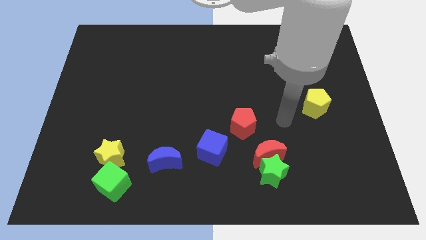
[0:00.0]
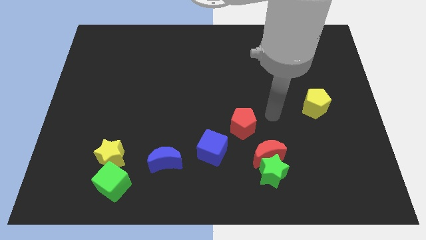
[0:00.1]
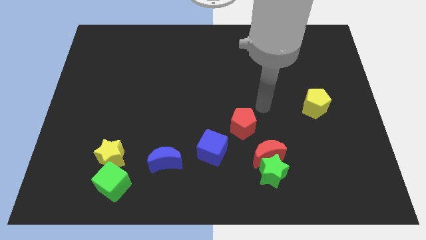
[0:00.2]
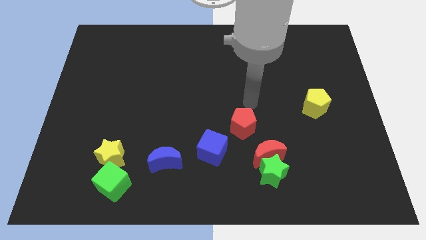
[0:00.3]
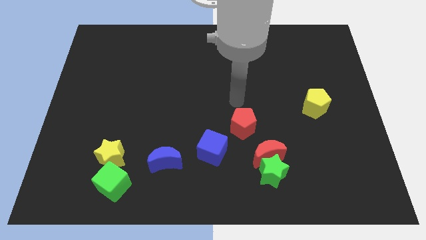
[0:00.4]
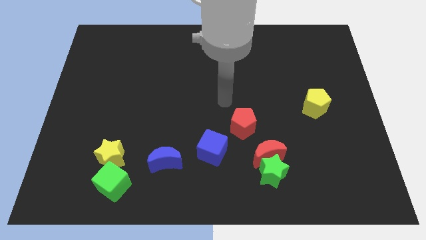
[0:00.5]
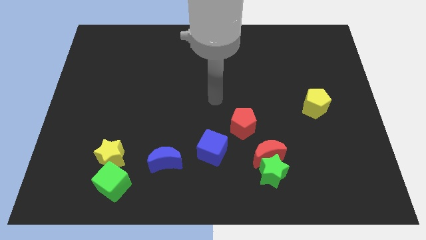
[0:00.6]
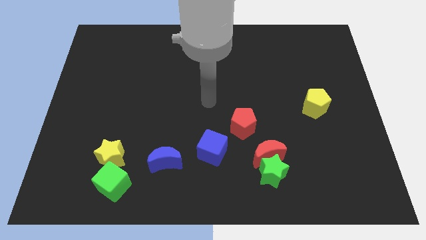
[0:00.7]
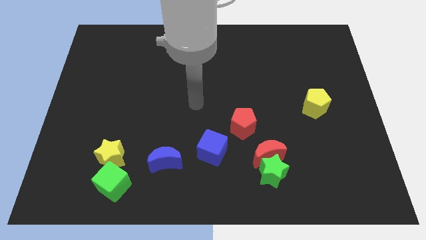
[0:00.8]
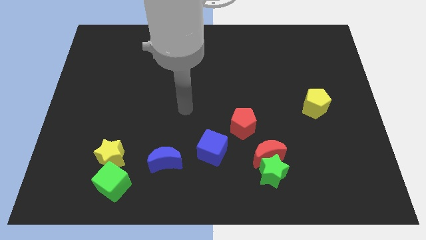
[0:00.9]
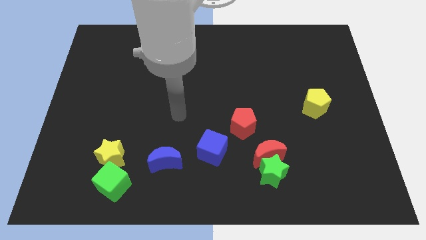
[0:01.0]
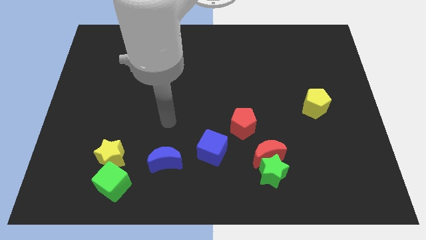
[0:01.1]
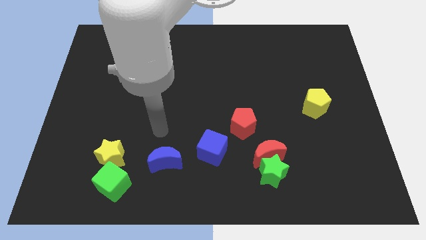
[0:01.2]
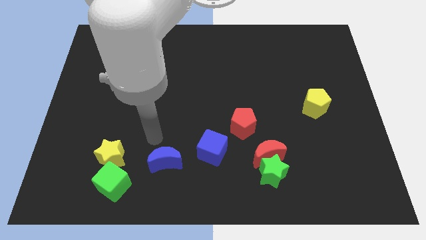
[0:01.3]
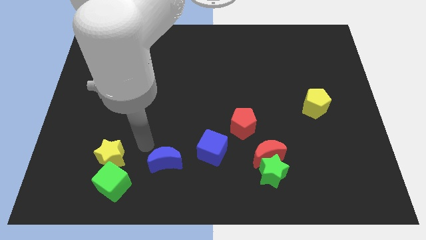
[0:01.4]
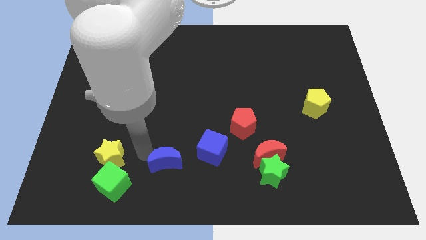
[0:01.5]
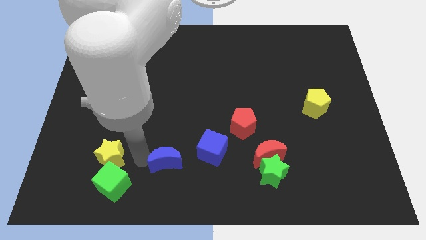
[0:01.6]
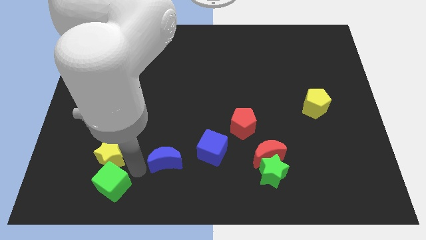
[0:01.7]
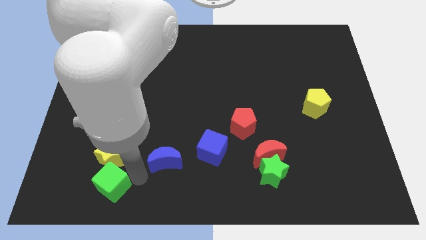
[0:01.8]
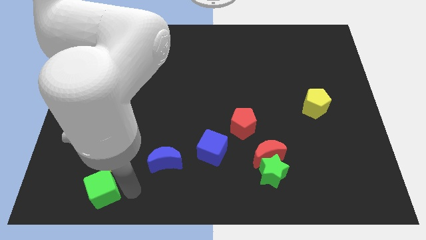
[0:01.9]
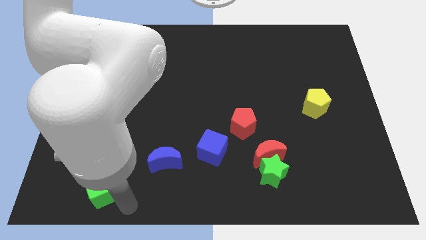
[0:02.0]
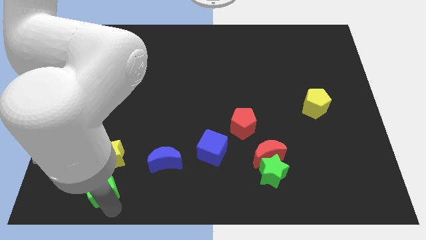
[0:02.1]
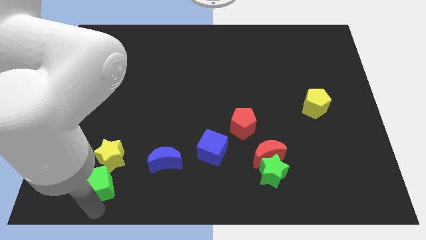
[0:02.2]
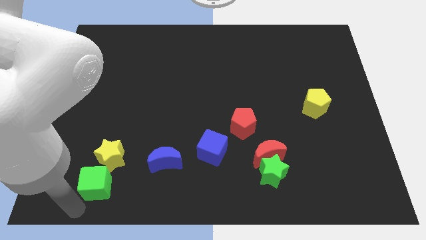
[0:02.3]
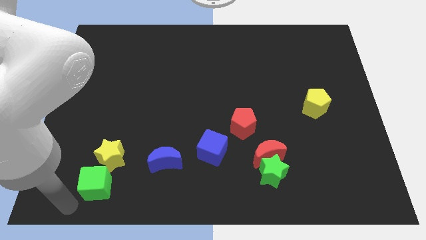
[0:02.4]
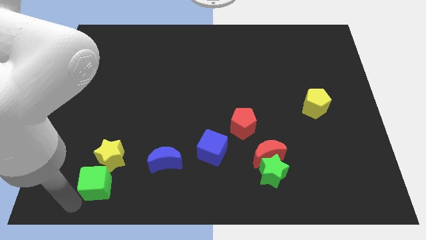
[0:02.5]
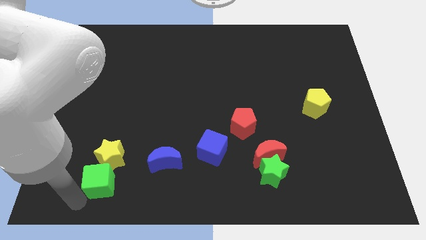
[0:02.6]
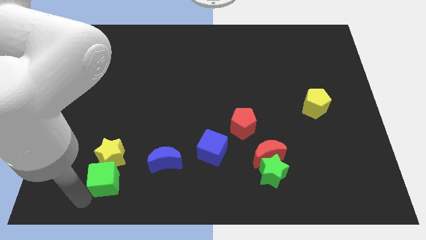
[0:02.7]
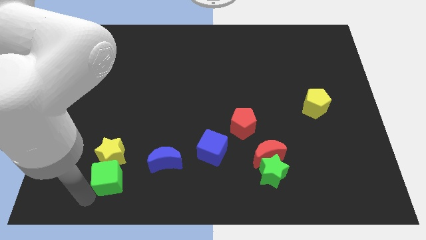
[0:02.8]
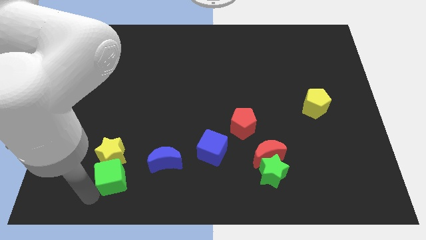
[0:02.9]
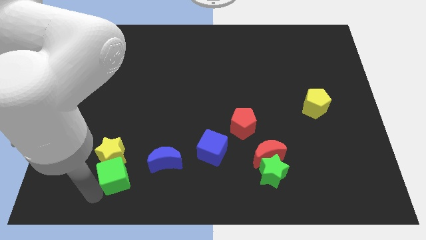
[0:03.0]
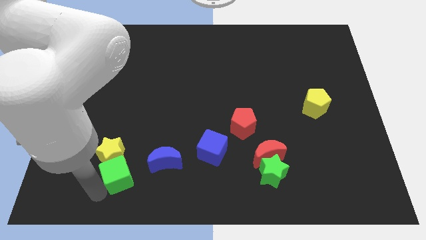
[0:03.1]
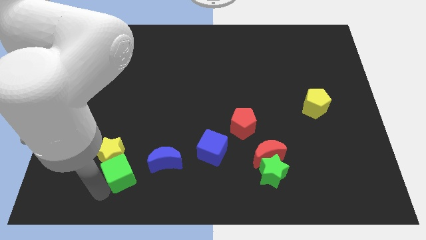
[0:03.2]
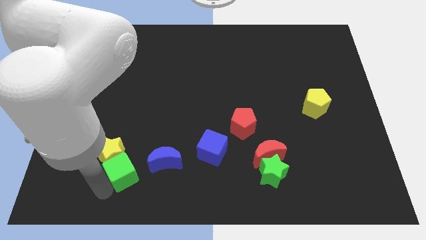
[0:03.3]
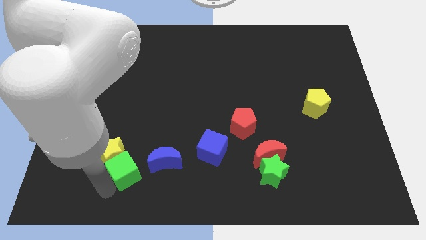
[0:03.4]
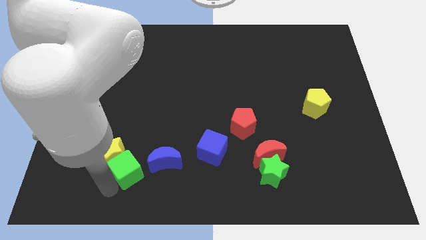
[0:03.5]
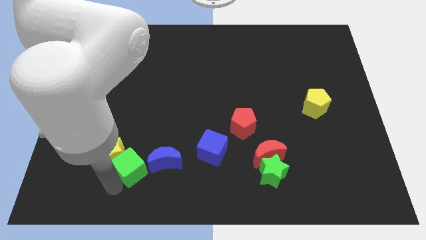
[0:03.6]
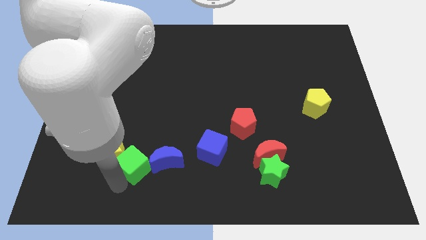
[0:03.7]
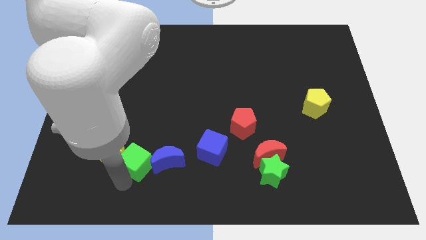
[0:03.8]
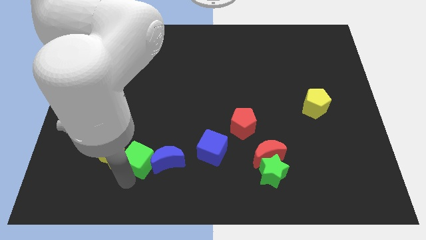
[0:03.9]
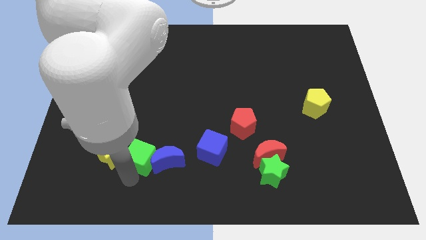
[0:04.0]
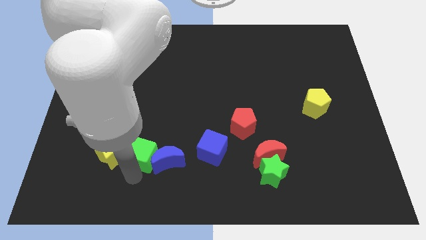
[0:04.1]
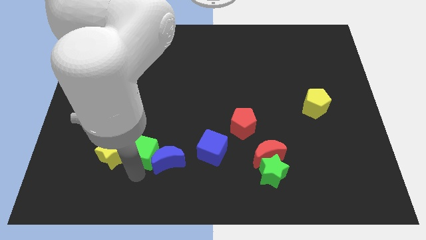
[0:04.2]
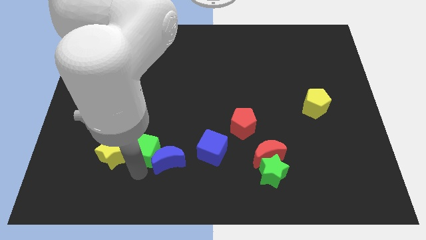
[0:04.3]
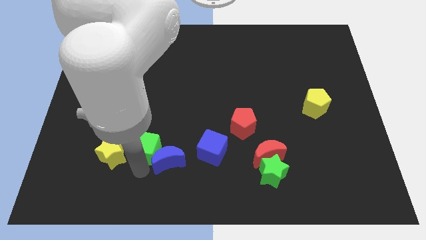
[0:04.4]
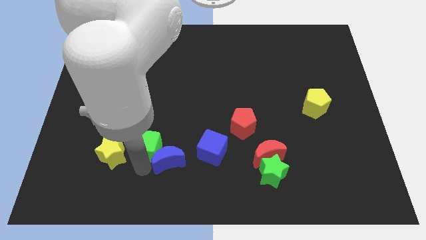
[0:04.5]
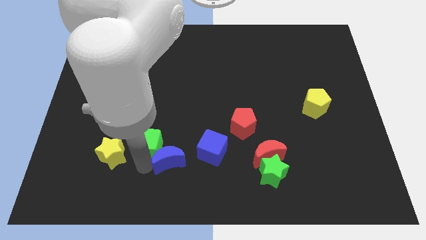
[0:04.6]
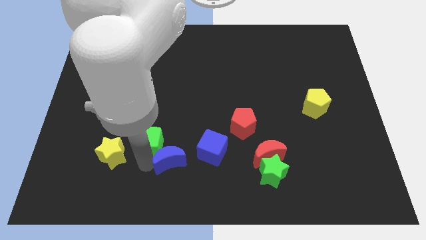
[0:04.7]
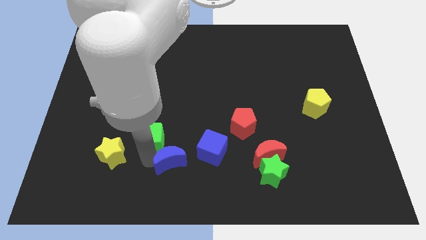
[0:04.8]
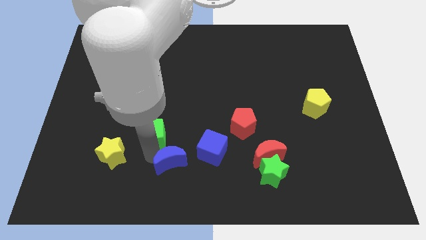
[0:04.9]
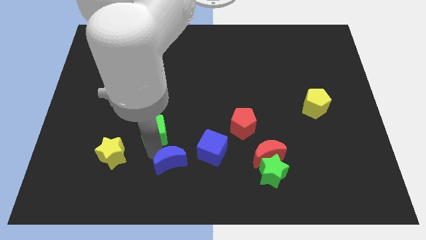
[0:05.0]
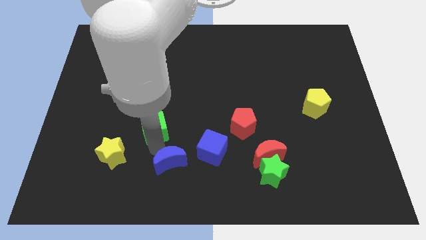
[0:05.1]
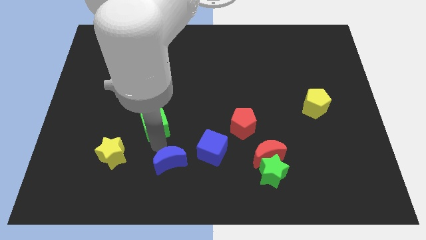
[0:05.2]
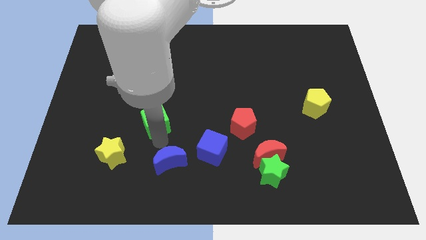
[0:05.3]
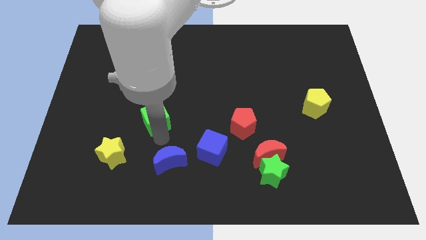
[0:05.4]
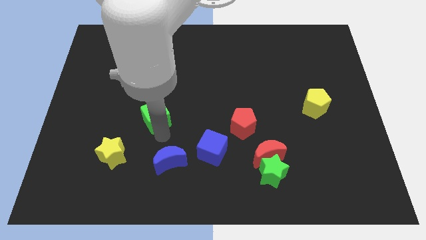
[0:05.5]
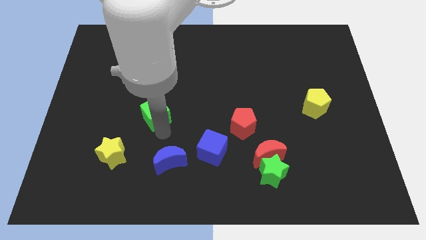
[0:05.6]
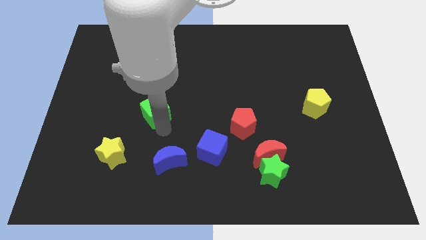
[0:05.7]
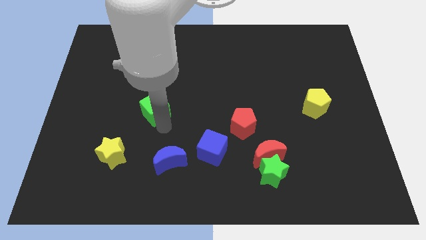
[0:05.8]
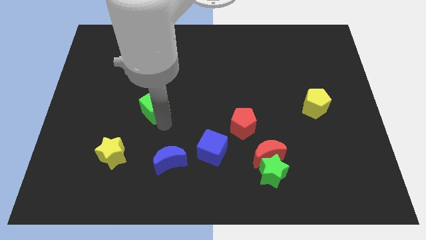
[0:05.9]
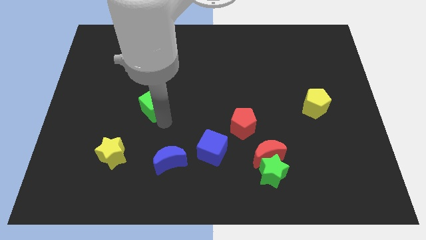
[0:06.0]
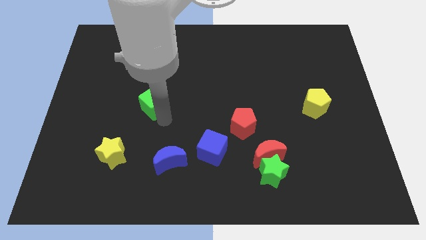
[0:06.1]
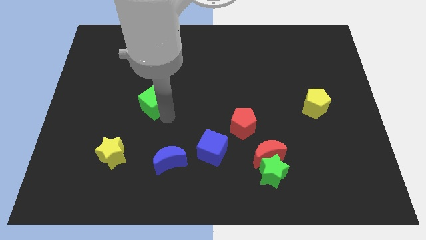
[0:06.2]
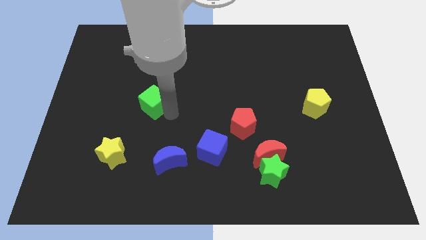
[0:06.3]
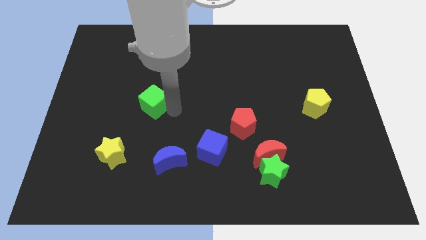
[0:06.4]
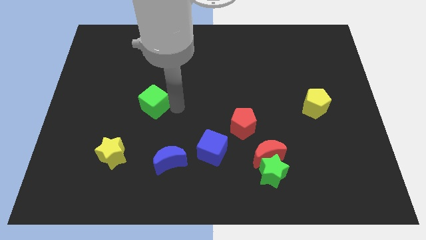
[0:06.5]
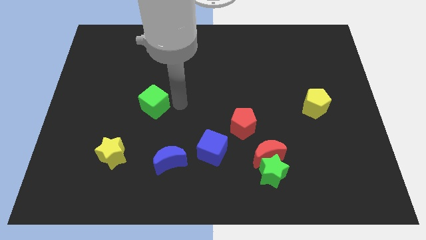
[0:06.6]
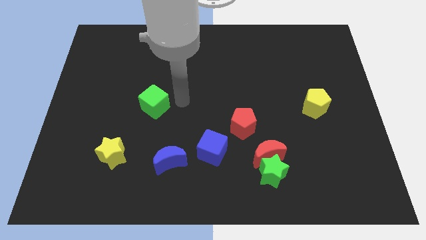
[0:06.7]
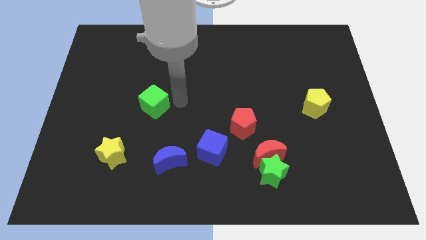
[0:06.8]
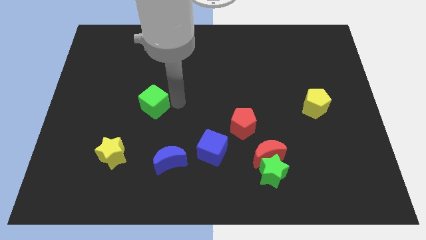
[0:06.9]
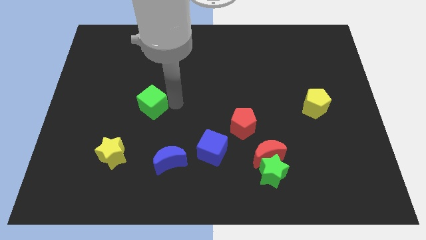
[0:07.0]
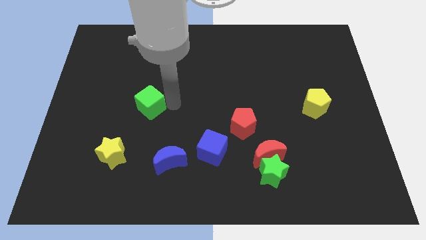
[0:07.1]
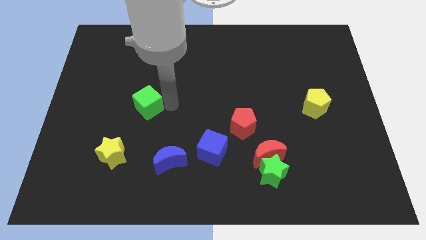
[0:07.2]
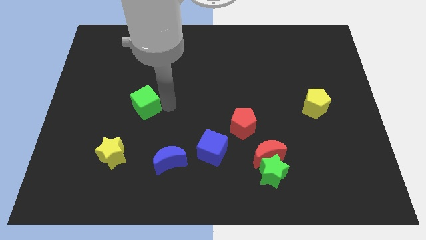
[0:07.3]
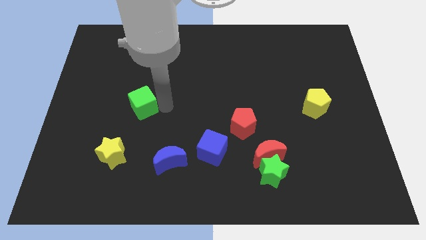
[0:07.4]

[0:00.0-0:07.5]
slide the green cube up

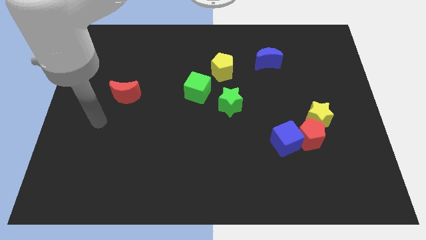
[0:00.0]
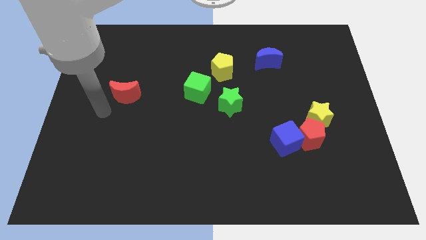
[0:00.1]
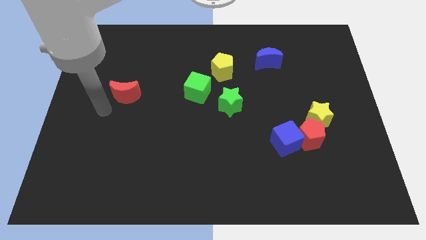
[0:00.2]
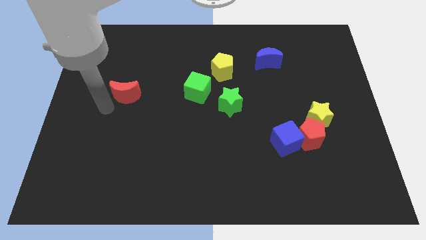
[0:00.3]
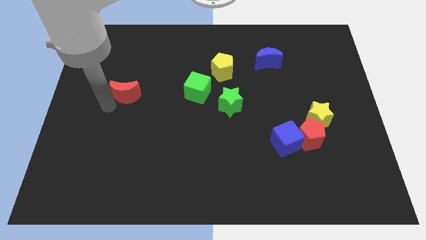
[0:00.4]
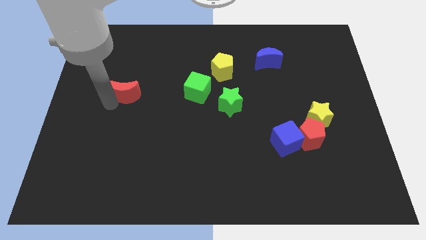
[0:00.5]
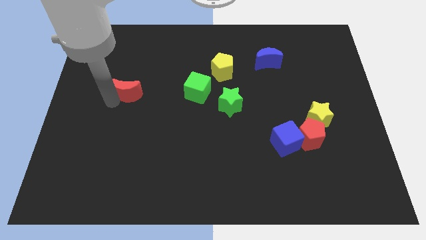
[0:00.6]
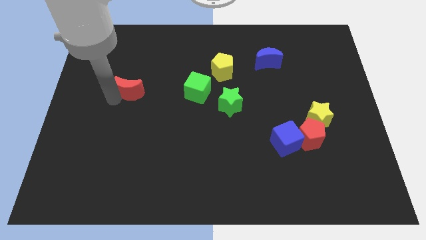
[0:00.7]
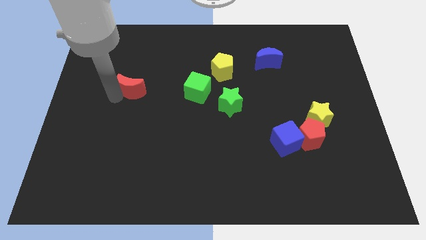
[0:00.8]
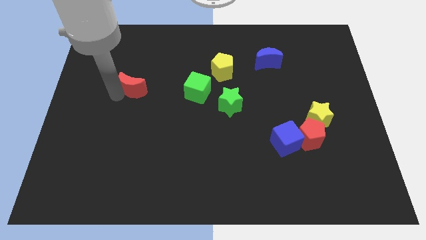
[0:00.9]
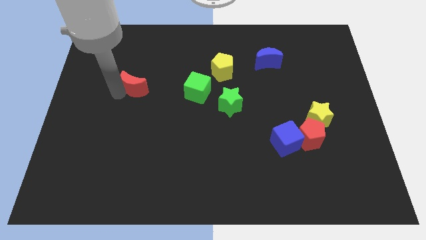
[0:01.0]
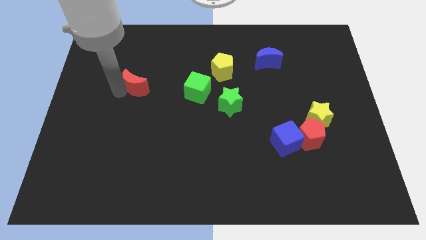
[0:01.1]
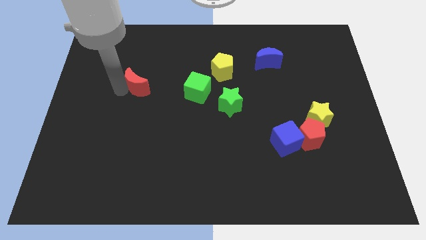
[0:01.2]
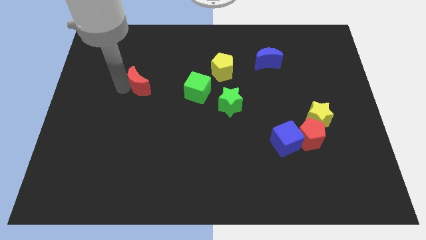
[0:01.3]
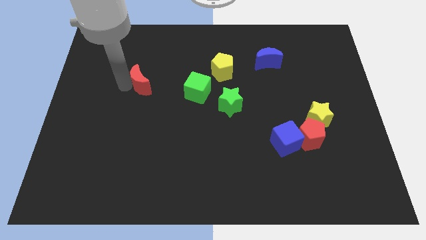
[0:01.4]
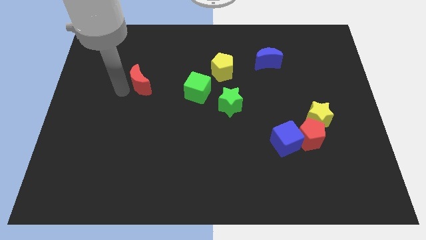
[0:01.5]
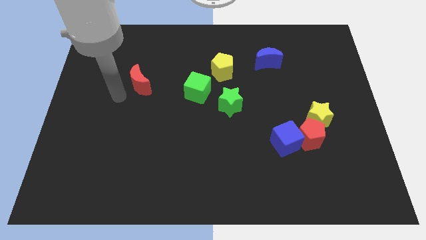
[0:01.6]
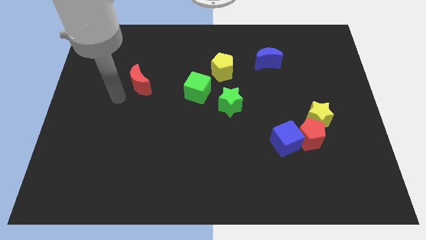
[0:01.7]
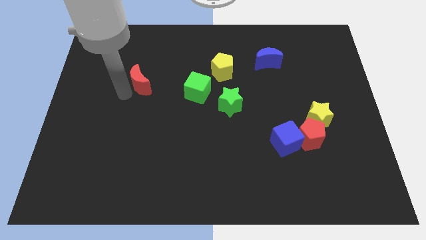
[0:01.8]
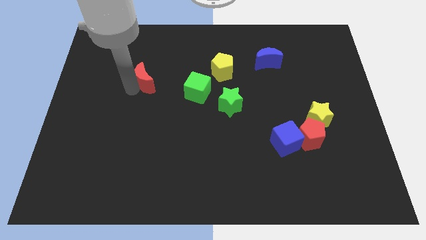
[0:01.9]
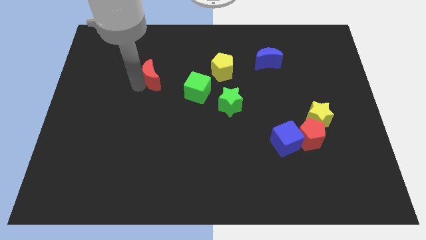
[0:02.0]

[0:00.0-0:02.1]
move the red moon diagonally upwards and to the right somewhat
